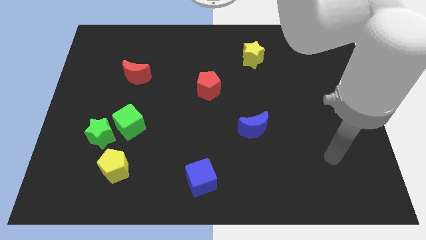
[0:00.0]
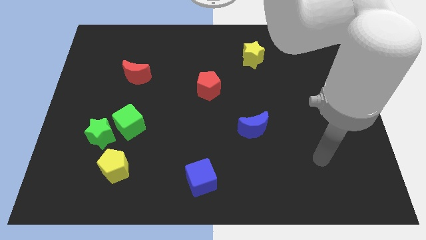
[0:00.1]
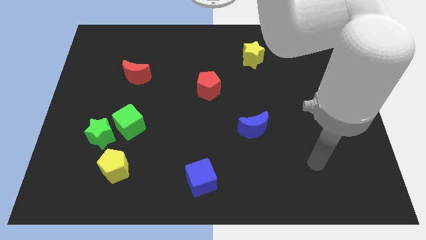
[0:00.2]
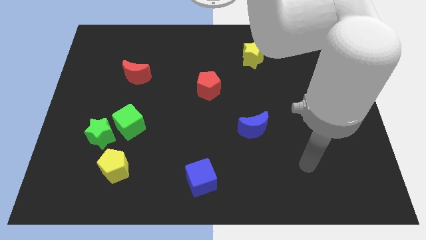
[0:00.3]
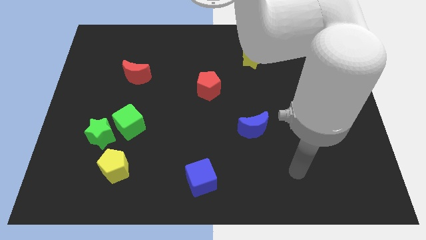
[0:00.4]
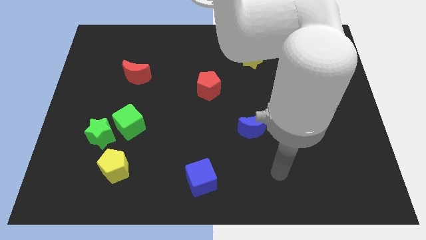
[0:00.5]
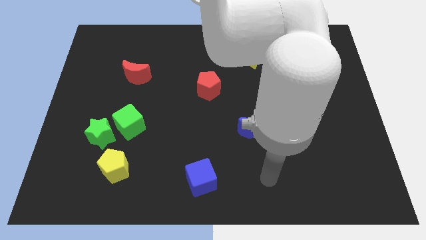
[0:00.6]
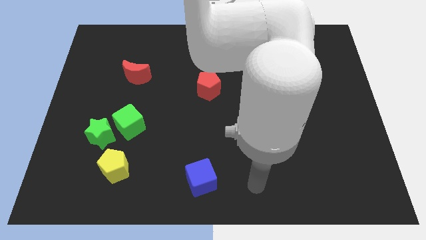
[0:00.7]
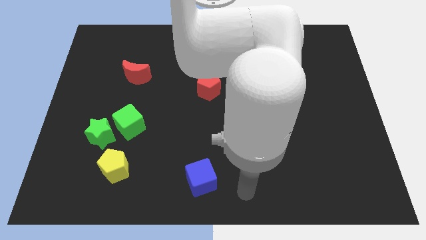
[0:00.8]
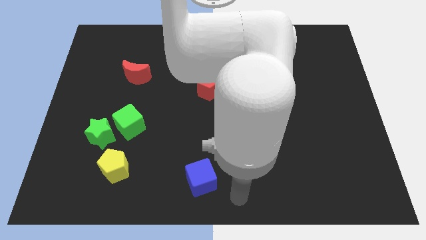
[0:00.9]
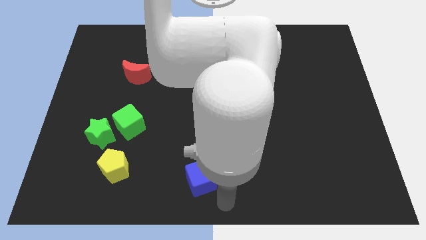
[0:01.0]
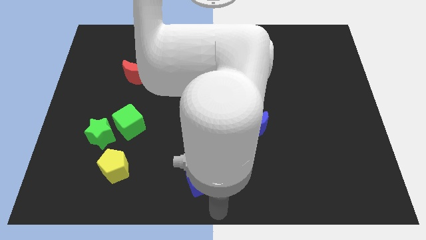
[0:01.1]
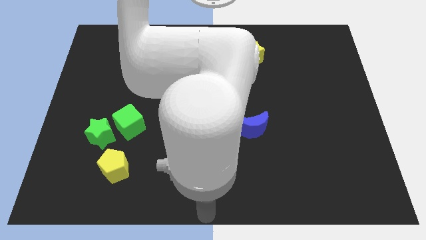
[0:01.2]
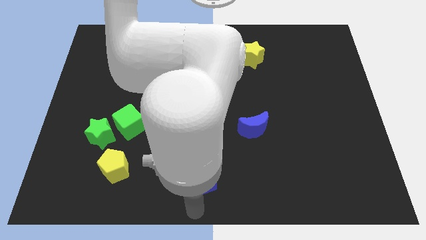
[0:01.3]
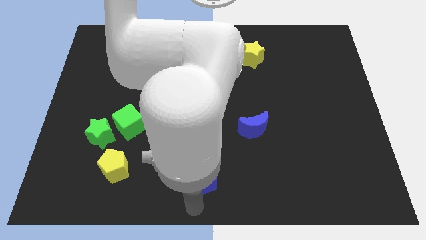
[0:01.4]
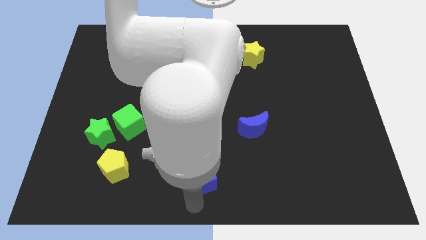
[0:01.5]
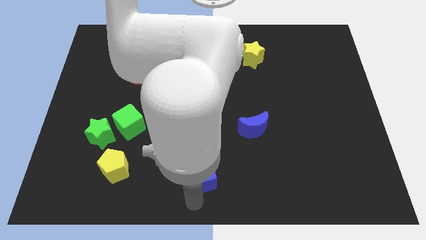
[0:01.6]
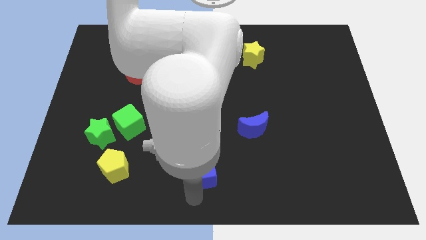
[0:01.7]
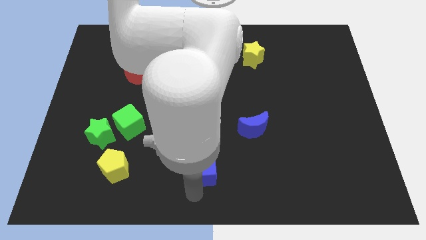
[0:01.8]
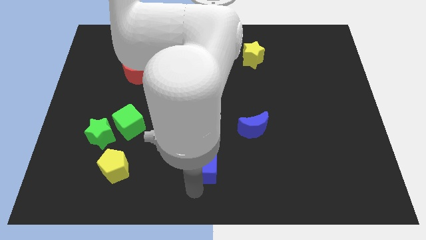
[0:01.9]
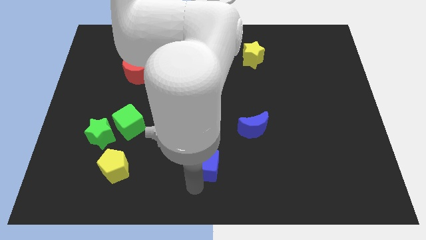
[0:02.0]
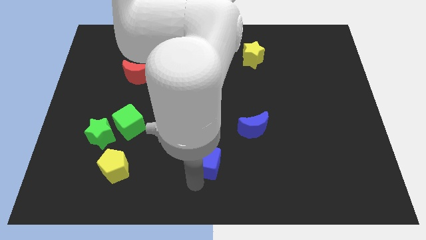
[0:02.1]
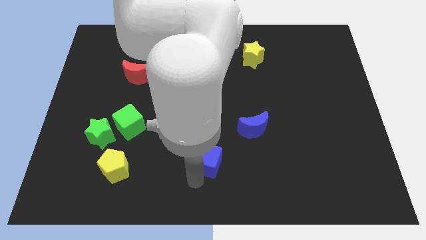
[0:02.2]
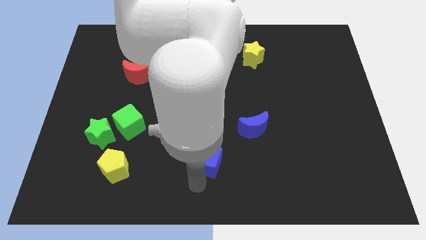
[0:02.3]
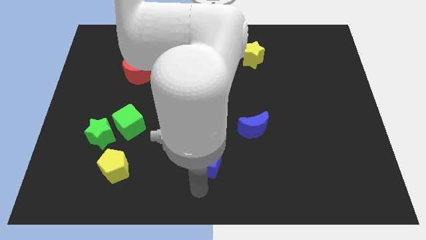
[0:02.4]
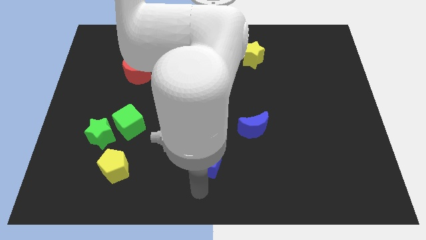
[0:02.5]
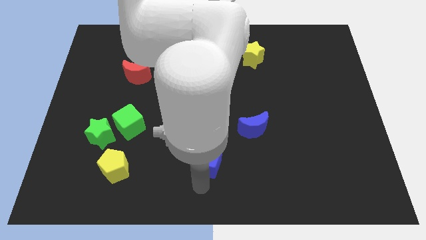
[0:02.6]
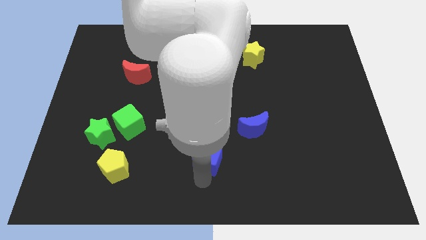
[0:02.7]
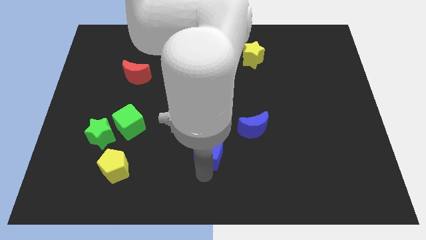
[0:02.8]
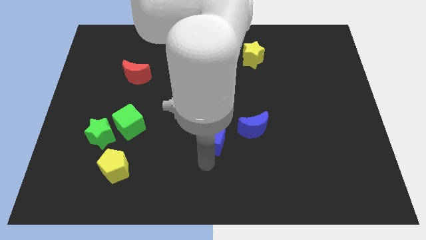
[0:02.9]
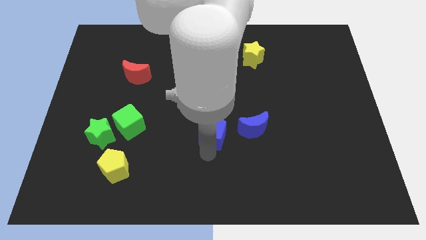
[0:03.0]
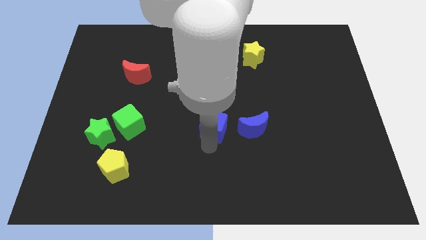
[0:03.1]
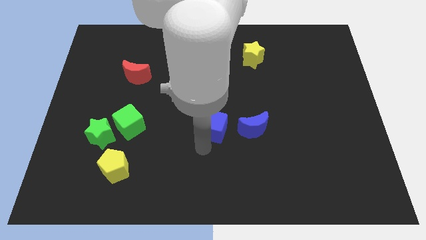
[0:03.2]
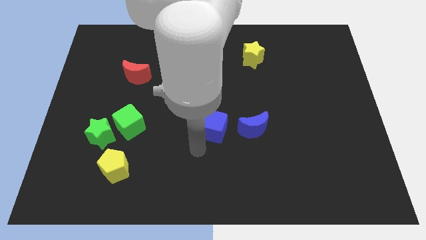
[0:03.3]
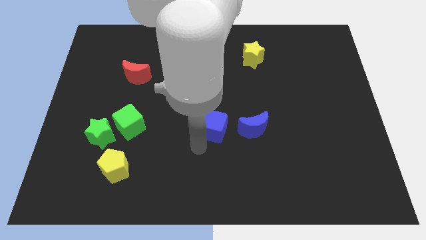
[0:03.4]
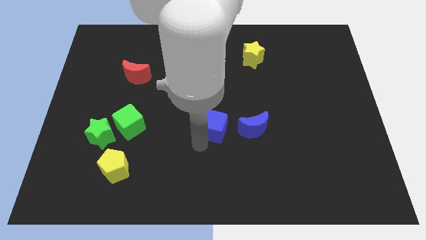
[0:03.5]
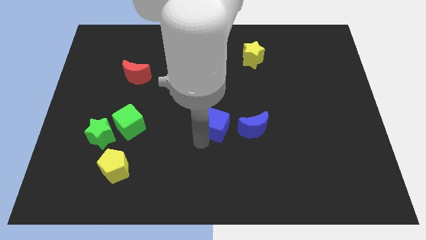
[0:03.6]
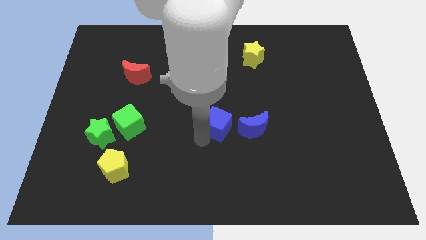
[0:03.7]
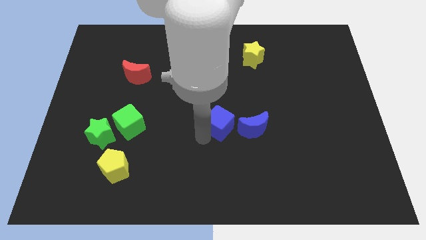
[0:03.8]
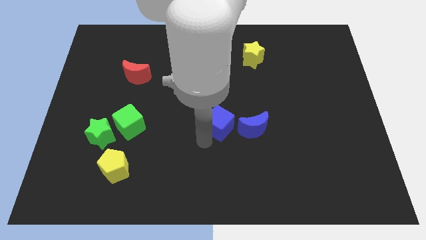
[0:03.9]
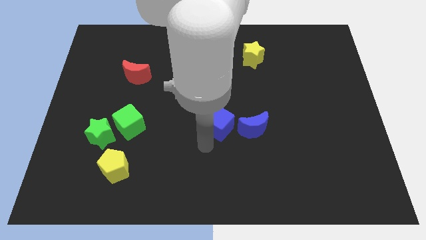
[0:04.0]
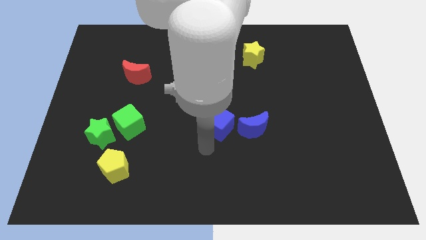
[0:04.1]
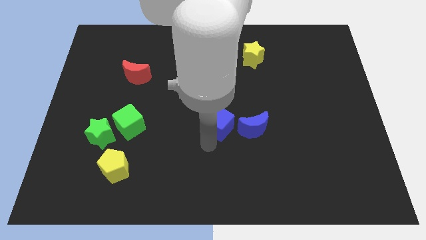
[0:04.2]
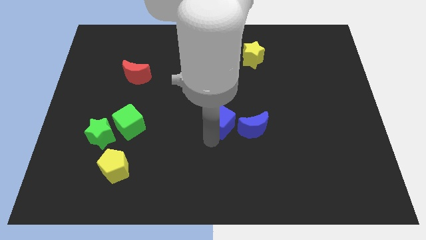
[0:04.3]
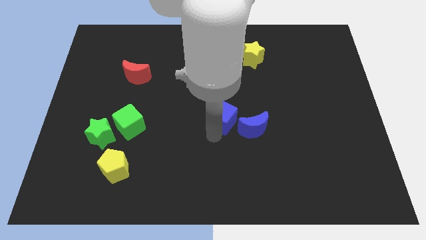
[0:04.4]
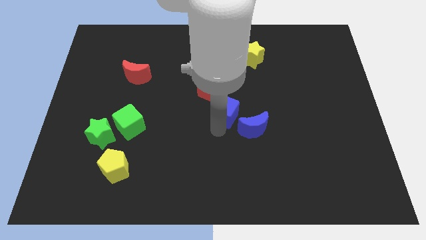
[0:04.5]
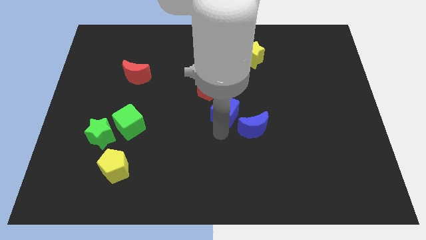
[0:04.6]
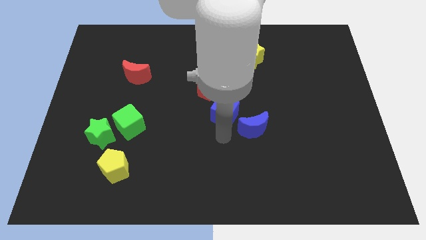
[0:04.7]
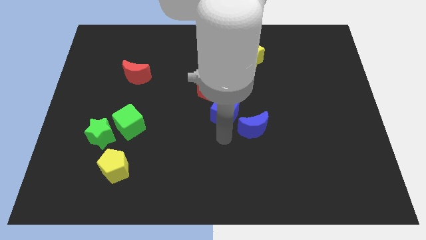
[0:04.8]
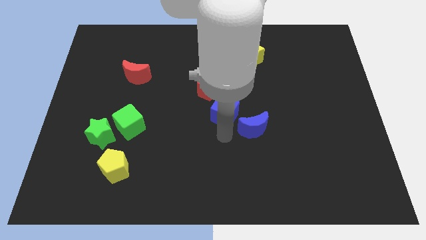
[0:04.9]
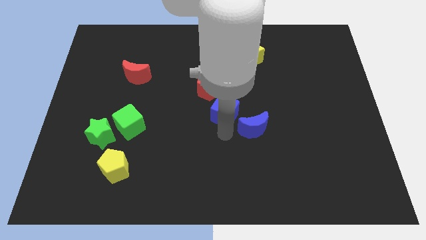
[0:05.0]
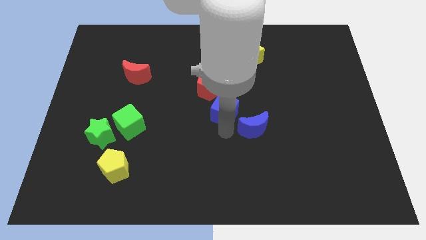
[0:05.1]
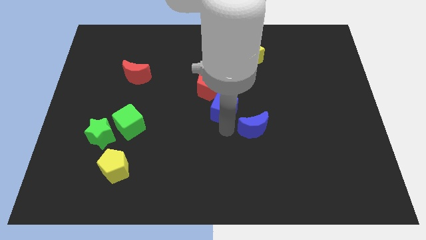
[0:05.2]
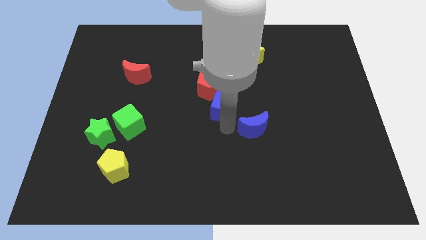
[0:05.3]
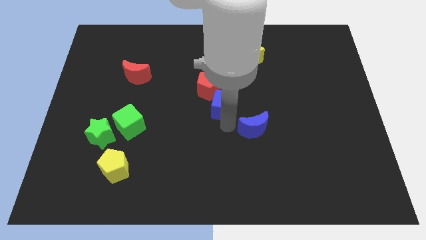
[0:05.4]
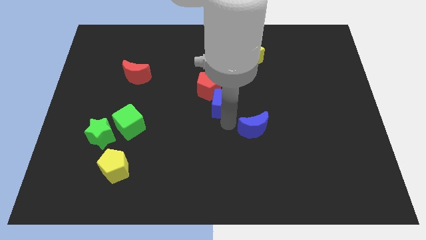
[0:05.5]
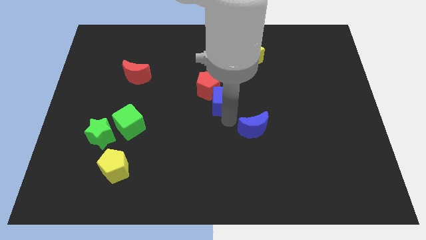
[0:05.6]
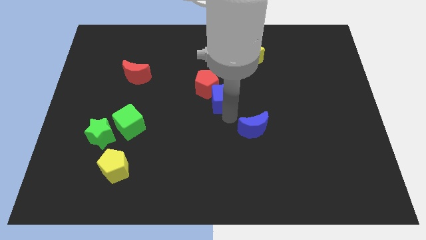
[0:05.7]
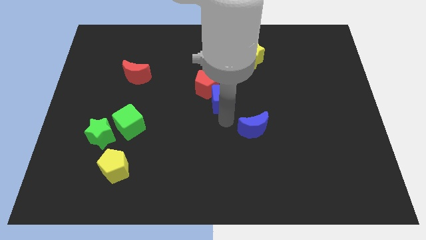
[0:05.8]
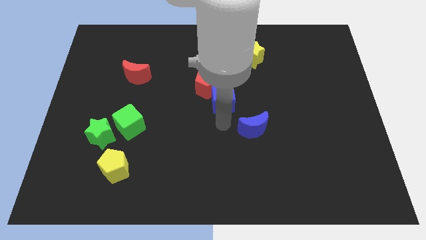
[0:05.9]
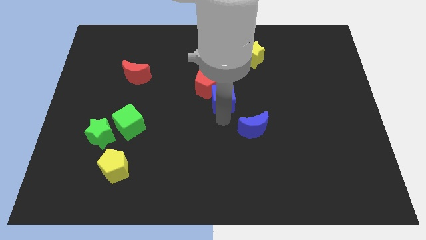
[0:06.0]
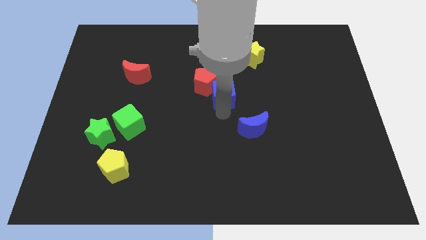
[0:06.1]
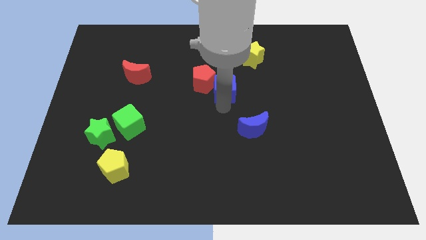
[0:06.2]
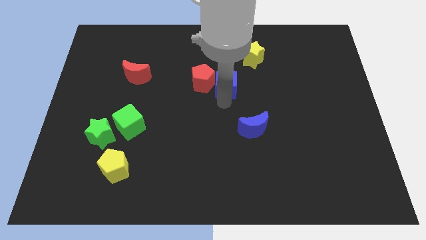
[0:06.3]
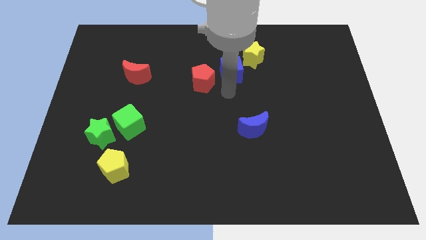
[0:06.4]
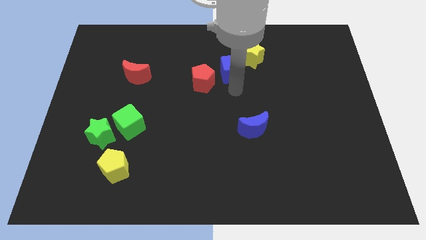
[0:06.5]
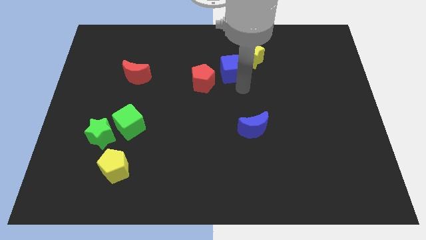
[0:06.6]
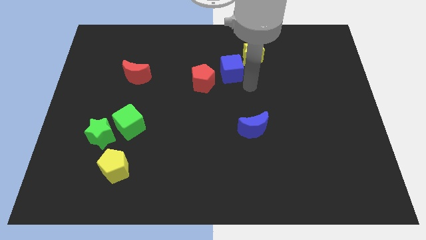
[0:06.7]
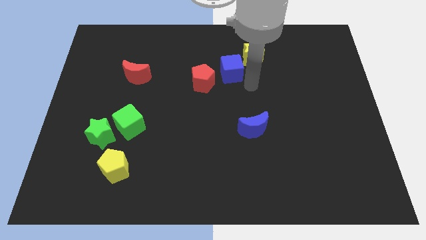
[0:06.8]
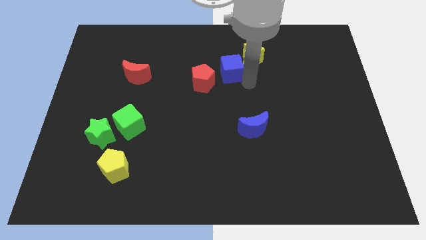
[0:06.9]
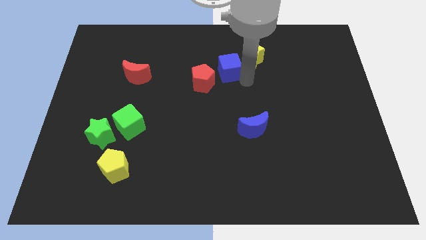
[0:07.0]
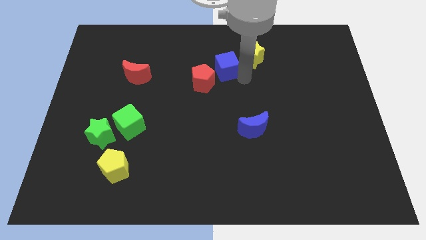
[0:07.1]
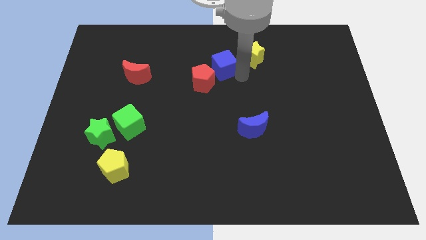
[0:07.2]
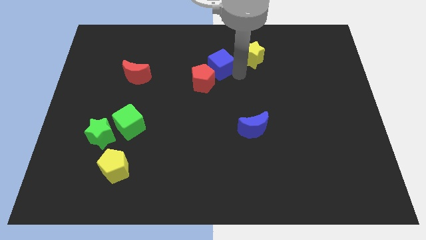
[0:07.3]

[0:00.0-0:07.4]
slide the blue cube to the top of the red pentagon

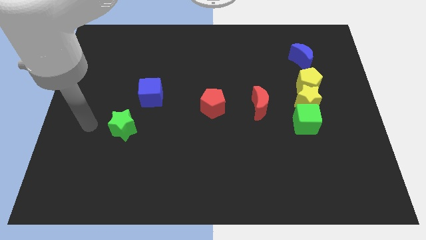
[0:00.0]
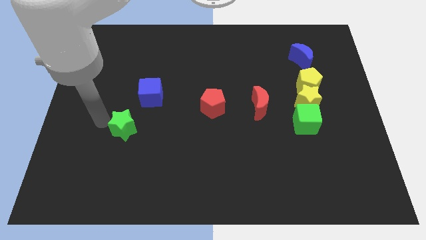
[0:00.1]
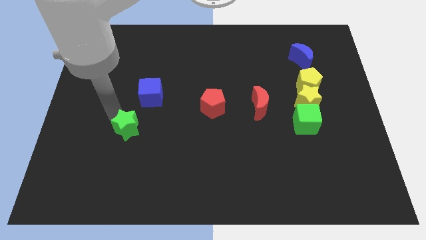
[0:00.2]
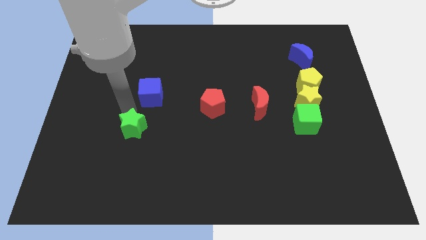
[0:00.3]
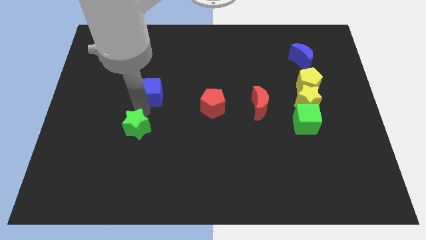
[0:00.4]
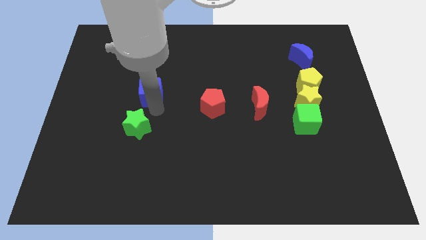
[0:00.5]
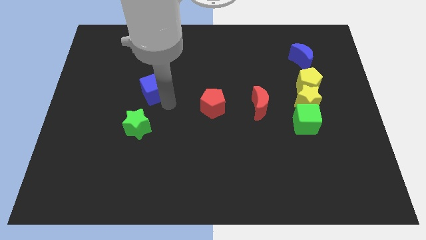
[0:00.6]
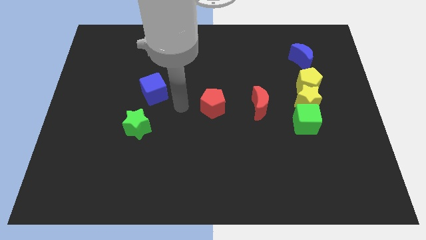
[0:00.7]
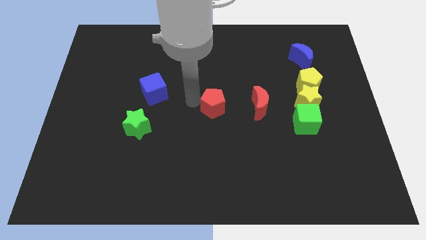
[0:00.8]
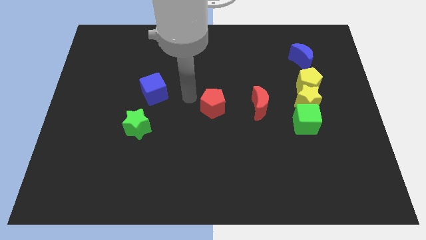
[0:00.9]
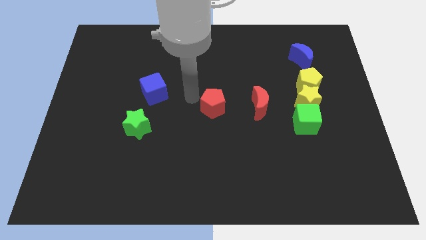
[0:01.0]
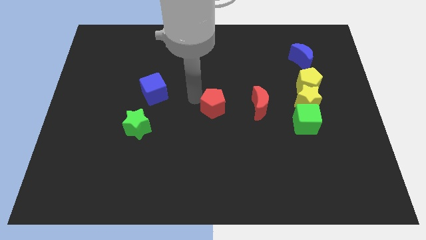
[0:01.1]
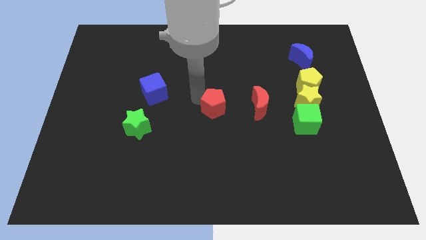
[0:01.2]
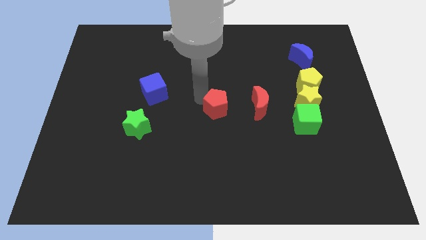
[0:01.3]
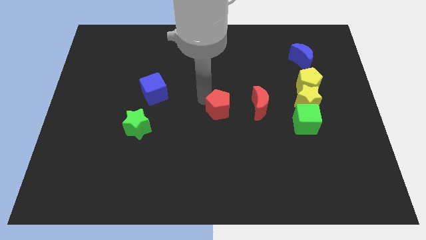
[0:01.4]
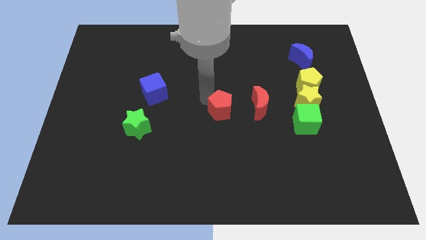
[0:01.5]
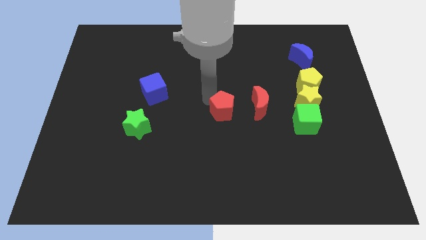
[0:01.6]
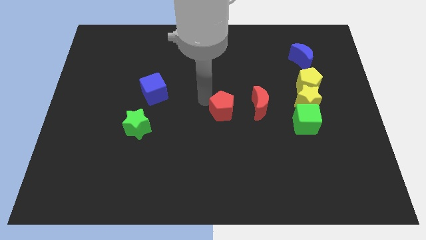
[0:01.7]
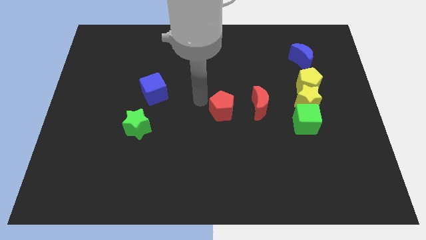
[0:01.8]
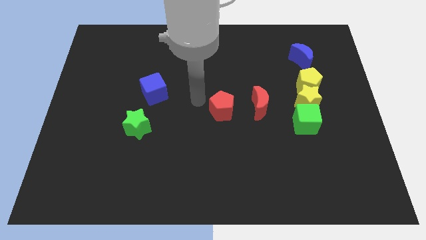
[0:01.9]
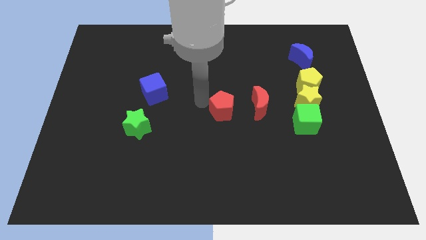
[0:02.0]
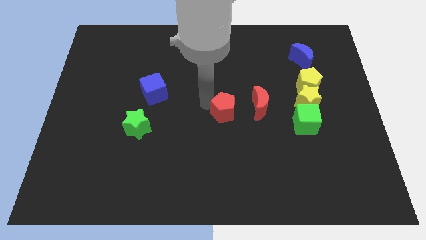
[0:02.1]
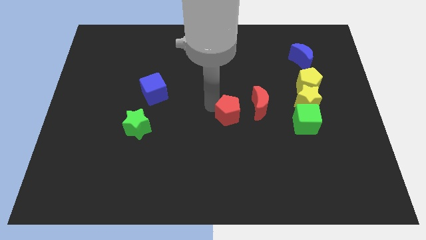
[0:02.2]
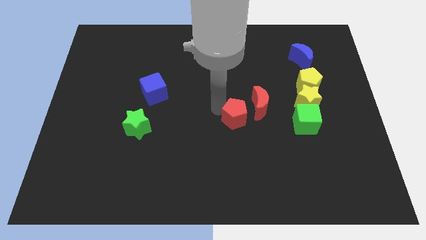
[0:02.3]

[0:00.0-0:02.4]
move the red pentagon left of the green cube
